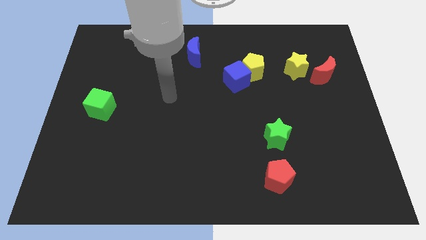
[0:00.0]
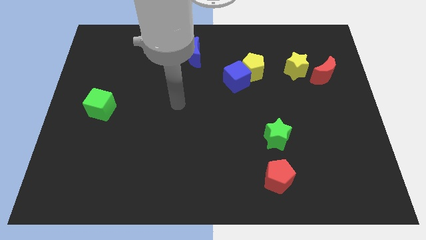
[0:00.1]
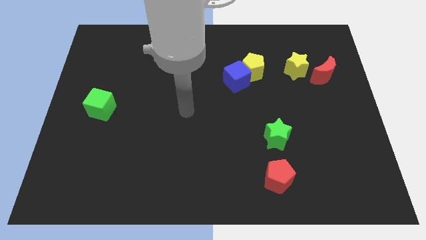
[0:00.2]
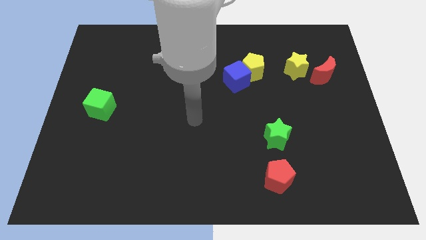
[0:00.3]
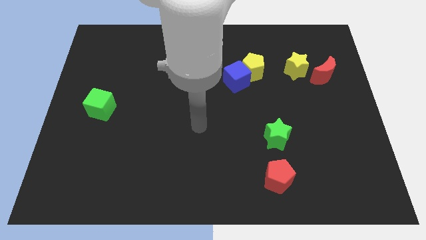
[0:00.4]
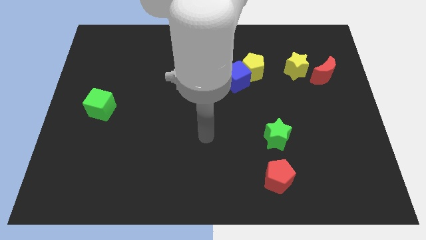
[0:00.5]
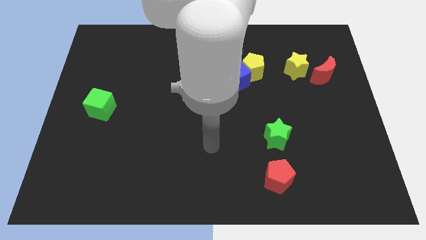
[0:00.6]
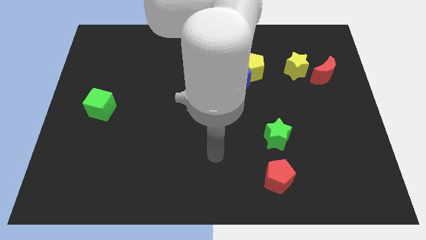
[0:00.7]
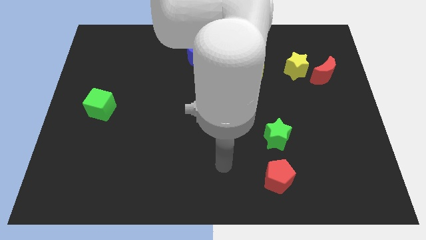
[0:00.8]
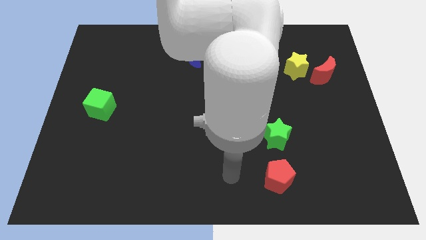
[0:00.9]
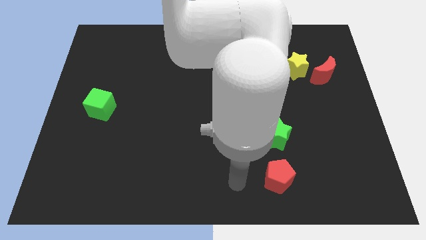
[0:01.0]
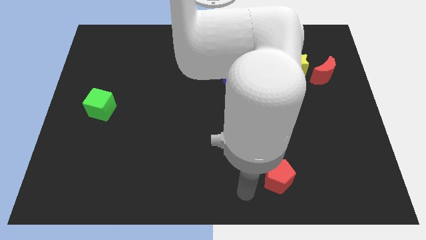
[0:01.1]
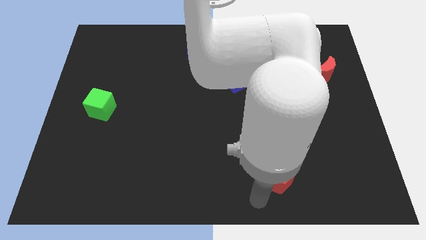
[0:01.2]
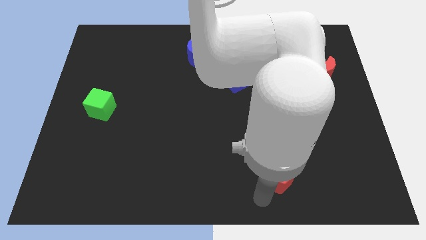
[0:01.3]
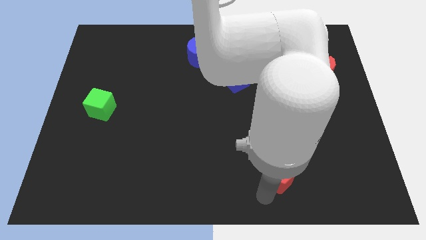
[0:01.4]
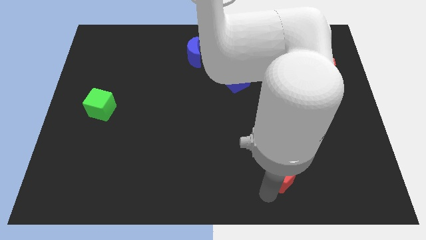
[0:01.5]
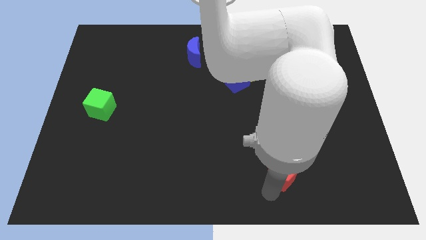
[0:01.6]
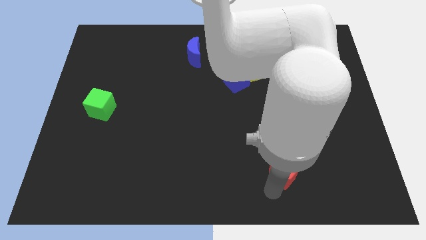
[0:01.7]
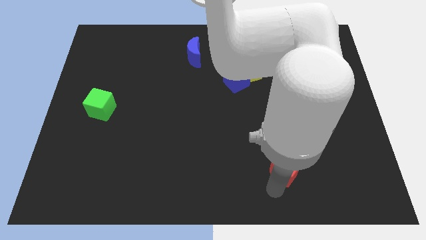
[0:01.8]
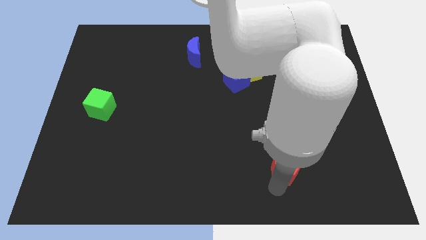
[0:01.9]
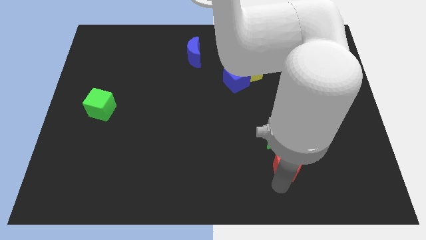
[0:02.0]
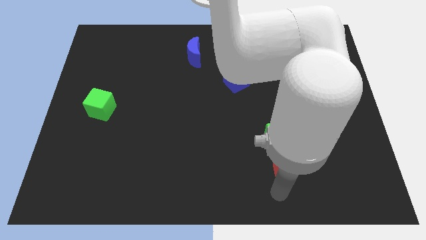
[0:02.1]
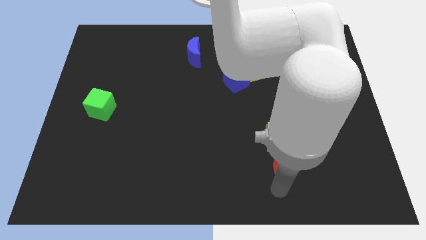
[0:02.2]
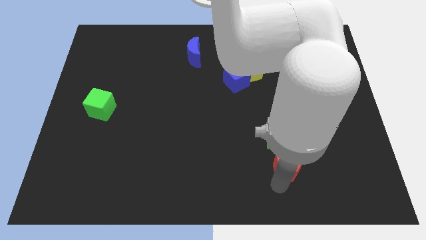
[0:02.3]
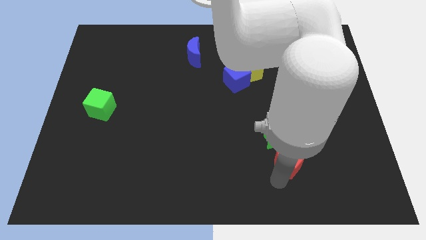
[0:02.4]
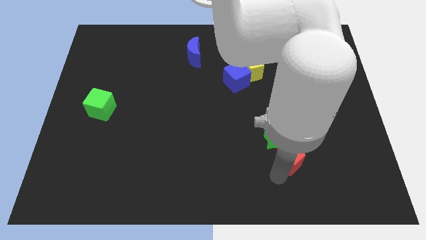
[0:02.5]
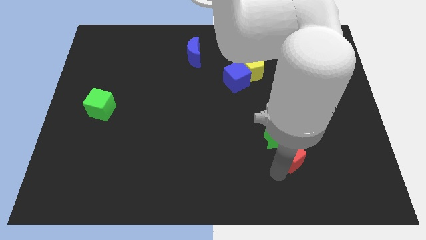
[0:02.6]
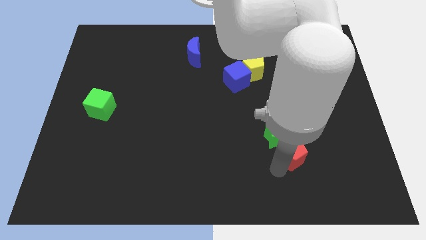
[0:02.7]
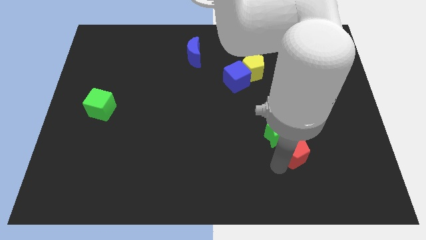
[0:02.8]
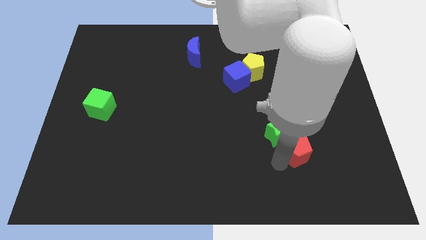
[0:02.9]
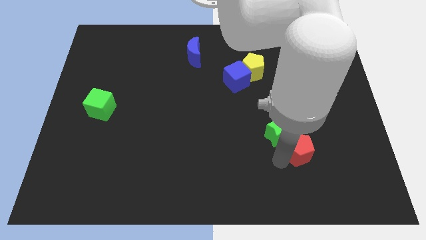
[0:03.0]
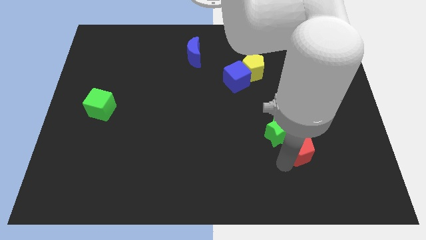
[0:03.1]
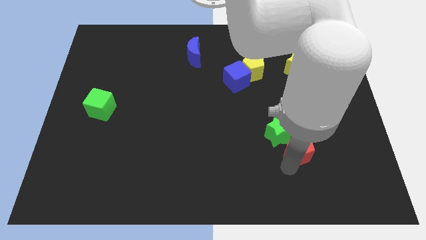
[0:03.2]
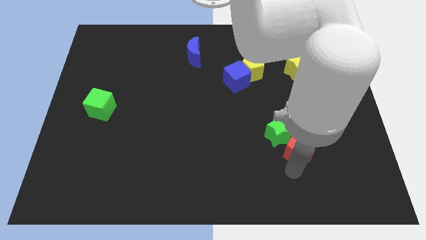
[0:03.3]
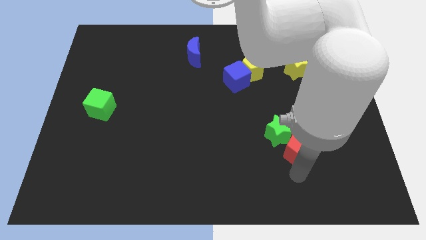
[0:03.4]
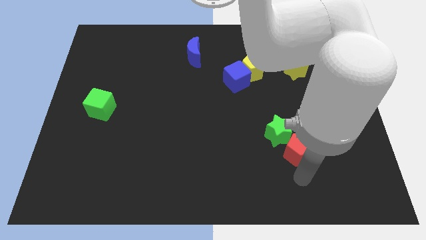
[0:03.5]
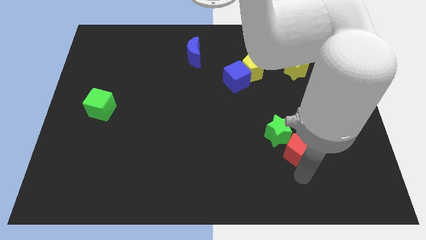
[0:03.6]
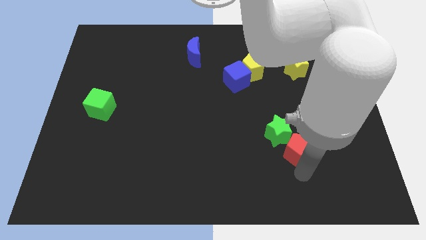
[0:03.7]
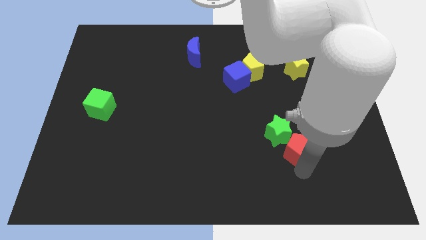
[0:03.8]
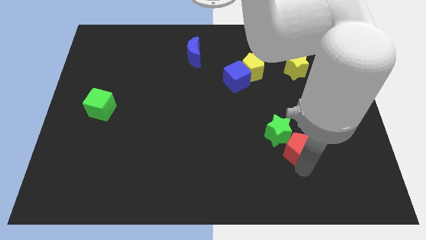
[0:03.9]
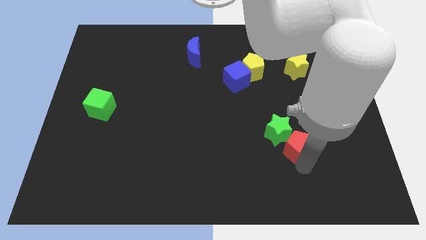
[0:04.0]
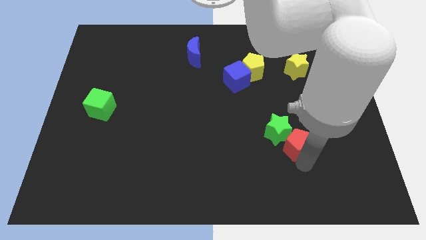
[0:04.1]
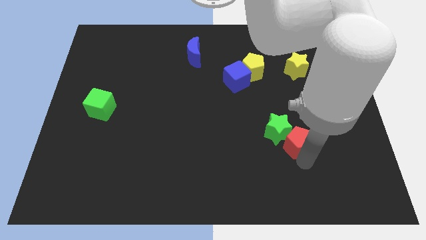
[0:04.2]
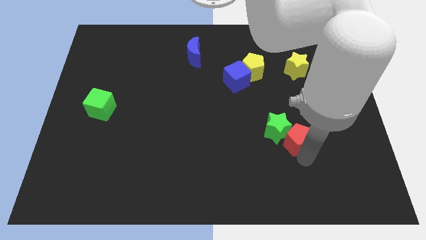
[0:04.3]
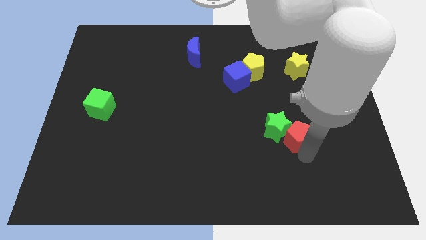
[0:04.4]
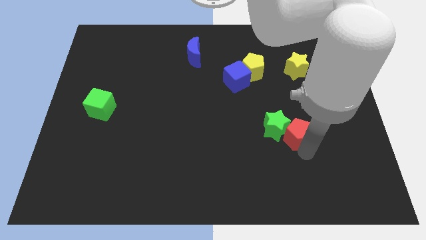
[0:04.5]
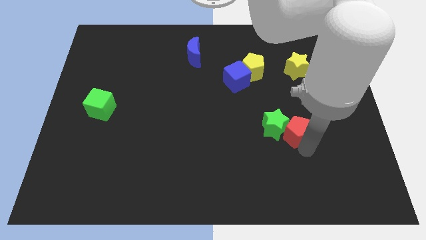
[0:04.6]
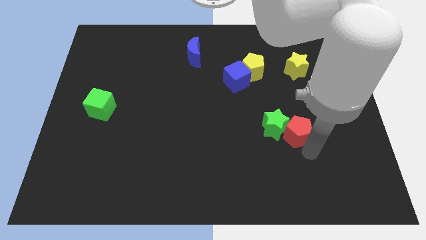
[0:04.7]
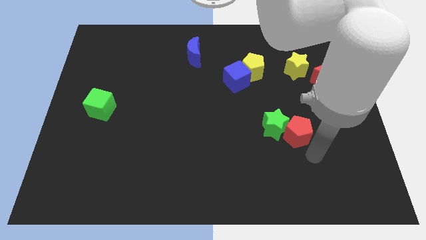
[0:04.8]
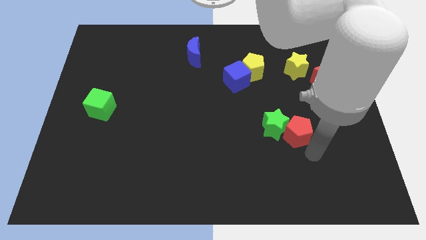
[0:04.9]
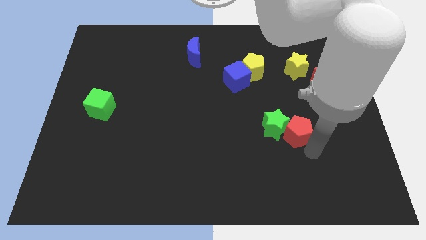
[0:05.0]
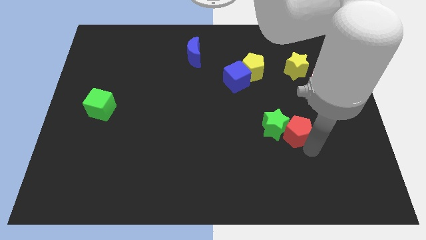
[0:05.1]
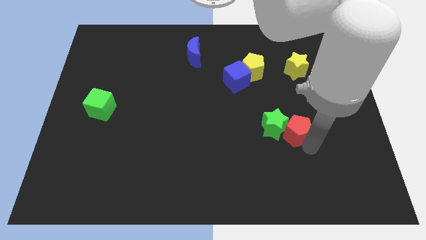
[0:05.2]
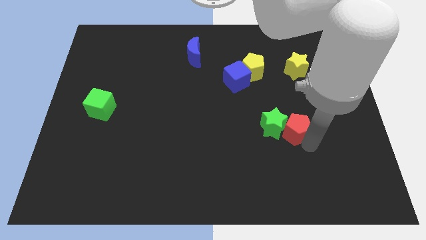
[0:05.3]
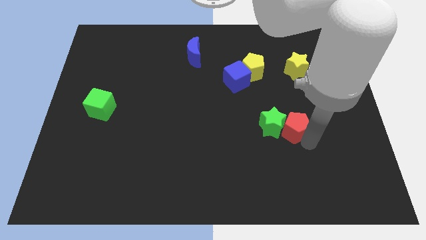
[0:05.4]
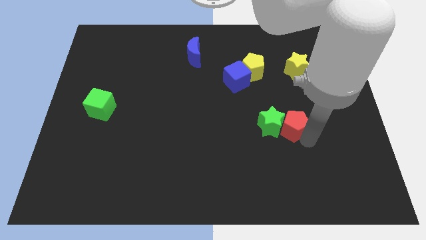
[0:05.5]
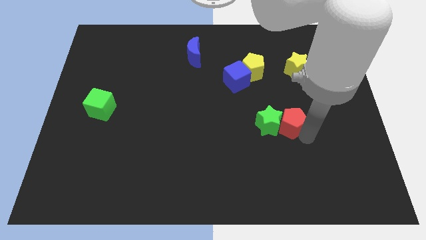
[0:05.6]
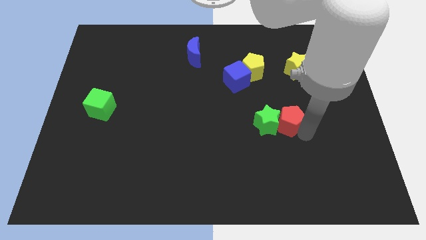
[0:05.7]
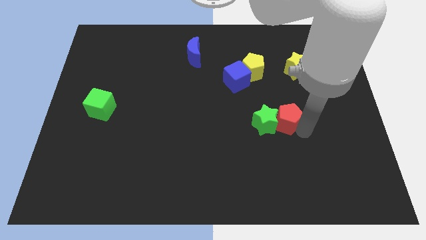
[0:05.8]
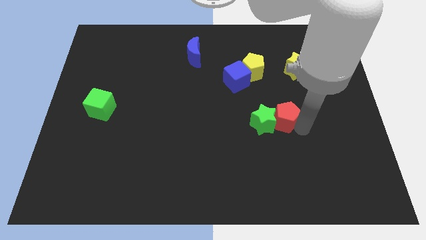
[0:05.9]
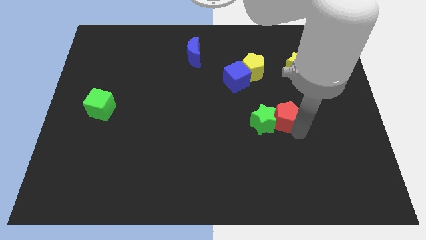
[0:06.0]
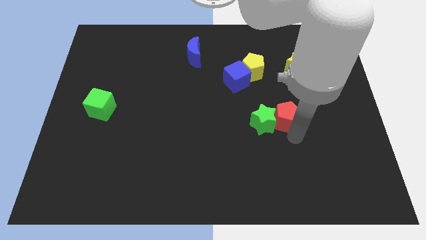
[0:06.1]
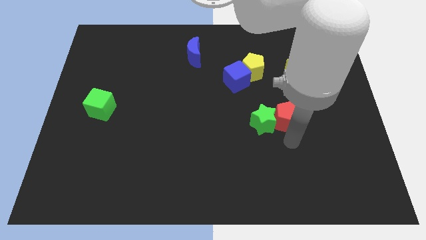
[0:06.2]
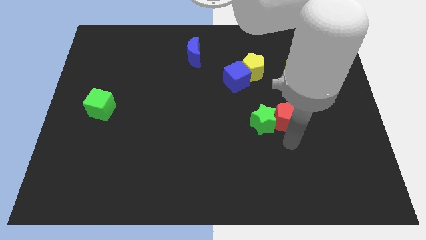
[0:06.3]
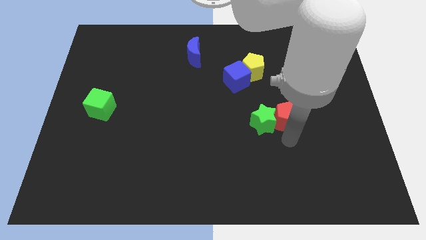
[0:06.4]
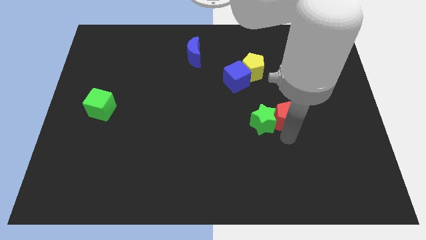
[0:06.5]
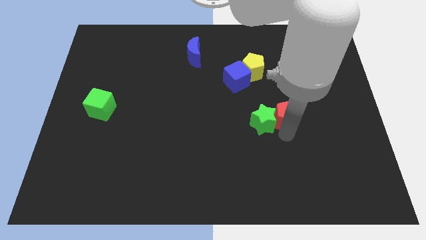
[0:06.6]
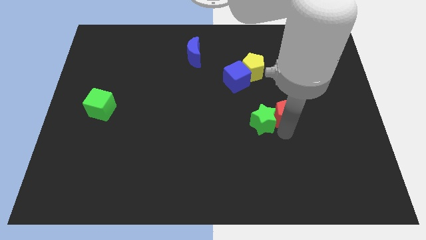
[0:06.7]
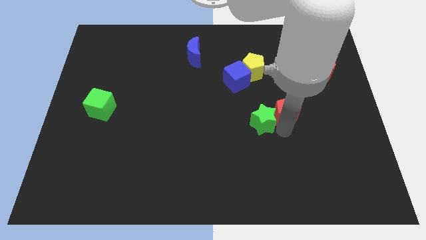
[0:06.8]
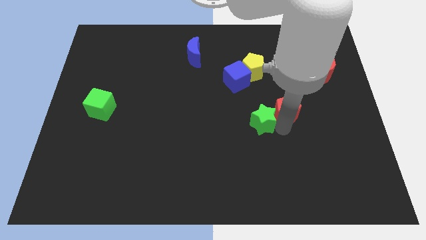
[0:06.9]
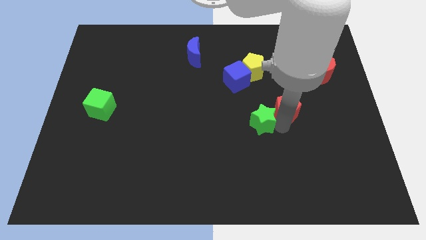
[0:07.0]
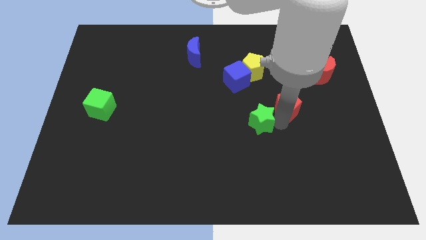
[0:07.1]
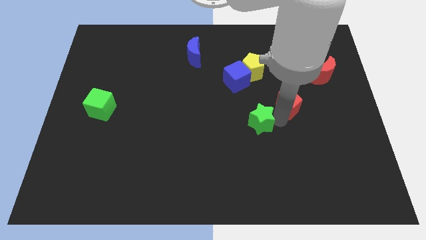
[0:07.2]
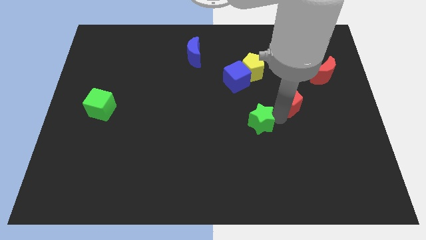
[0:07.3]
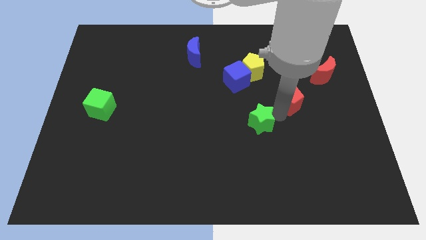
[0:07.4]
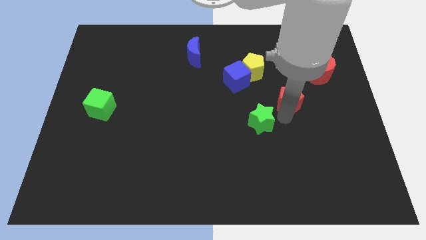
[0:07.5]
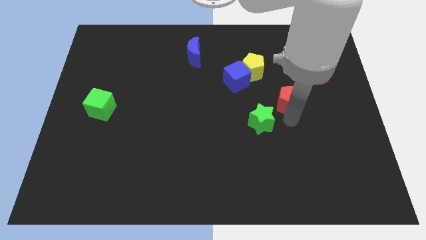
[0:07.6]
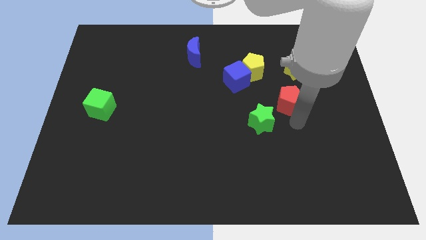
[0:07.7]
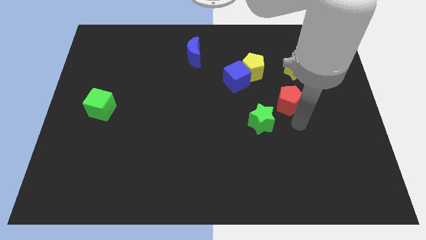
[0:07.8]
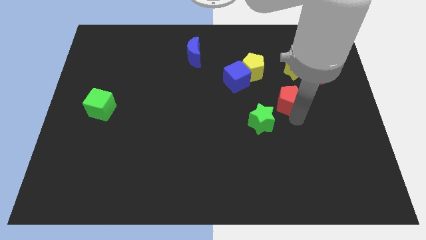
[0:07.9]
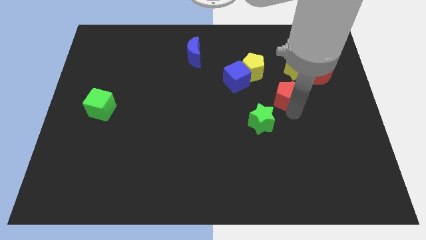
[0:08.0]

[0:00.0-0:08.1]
put the red pentagon to the bottom left side of the yellow star
